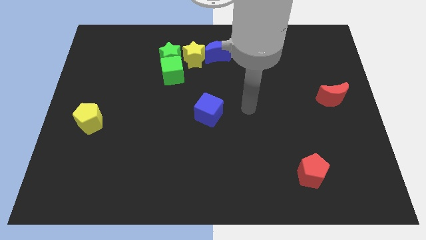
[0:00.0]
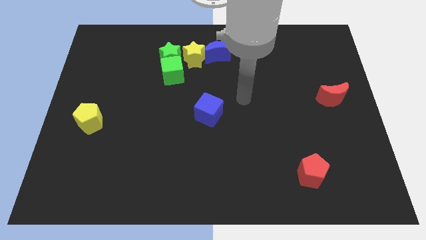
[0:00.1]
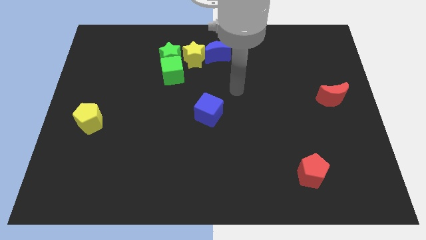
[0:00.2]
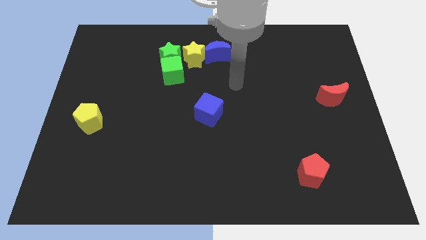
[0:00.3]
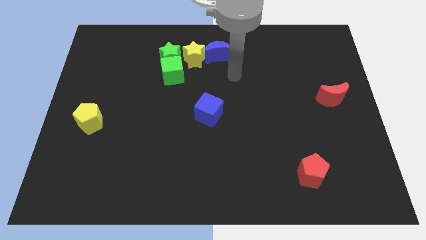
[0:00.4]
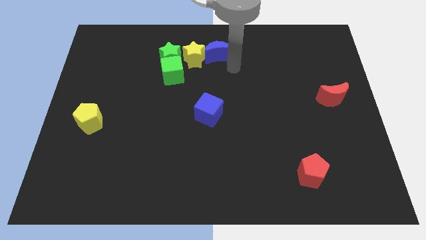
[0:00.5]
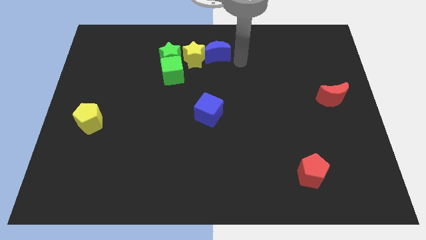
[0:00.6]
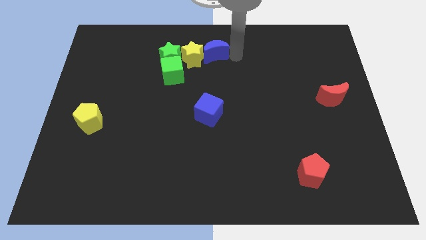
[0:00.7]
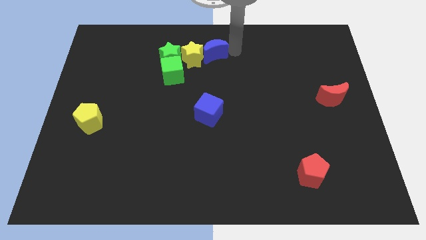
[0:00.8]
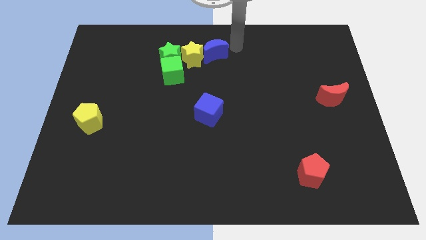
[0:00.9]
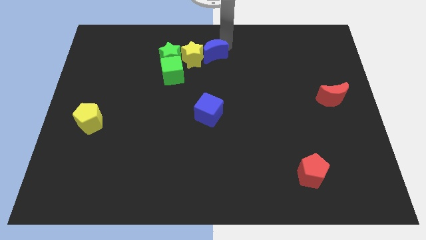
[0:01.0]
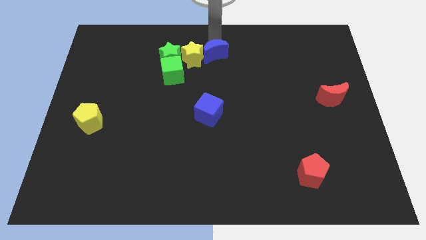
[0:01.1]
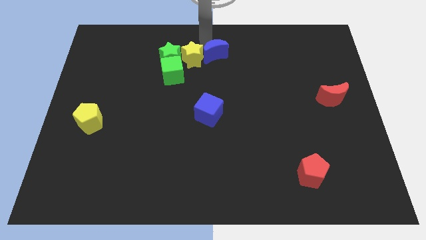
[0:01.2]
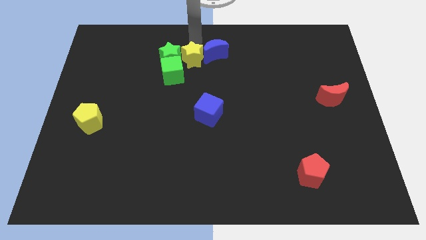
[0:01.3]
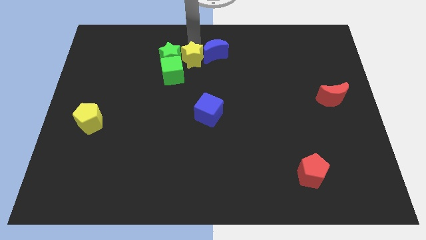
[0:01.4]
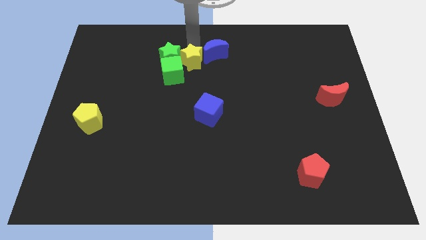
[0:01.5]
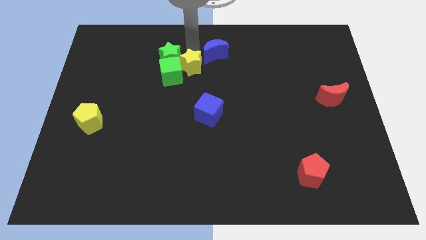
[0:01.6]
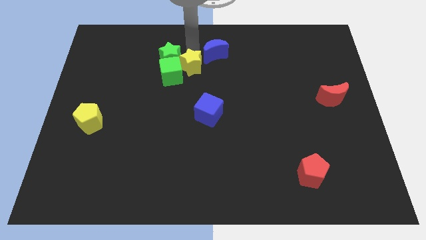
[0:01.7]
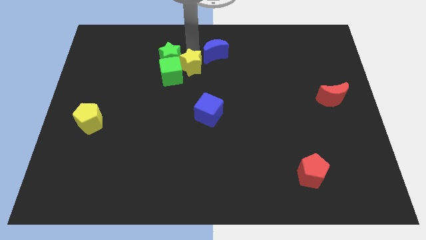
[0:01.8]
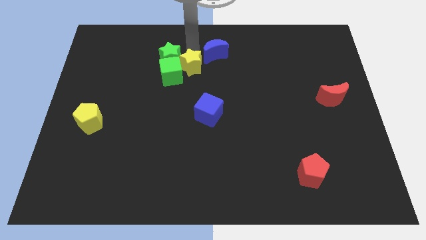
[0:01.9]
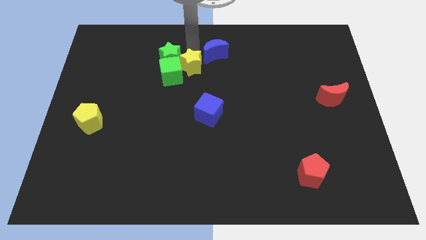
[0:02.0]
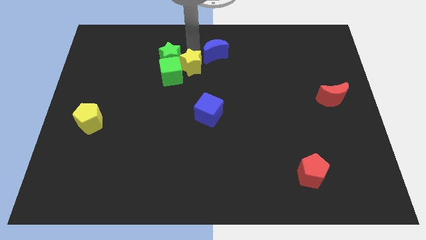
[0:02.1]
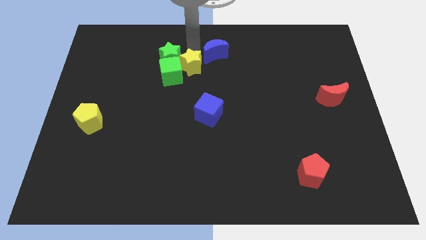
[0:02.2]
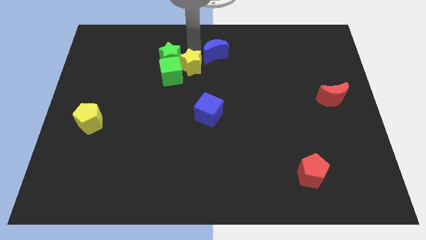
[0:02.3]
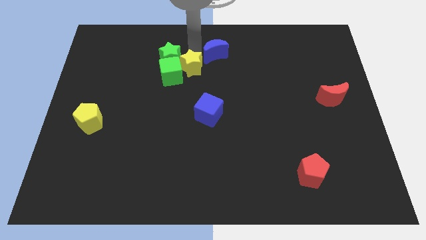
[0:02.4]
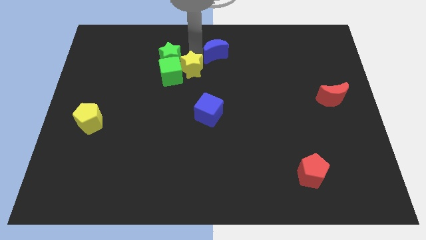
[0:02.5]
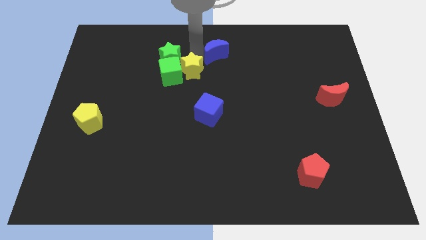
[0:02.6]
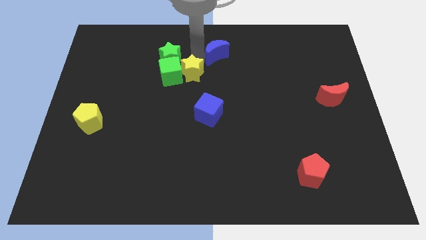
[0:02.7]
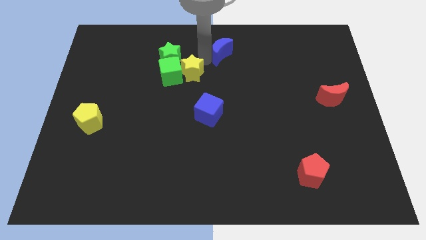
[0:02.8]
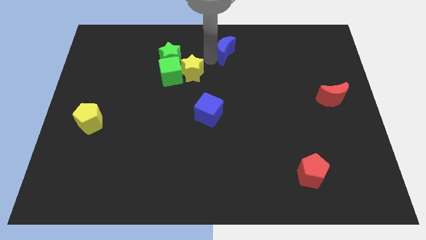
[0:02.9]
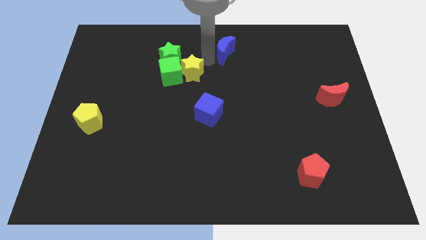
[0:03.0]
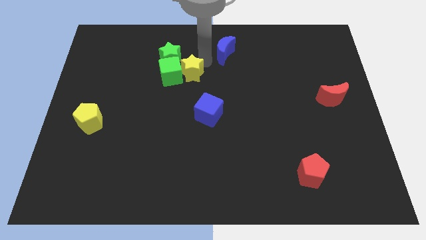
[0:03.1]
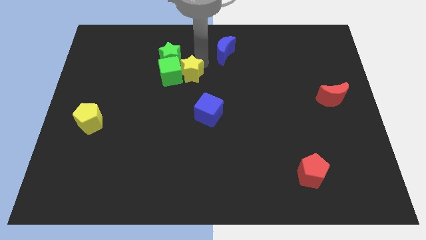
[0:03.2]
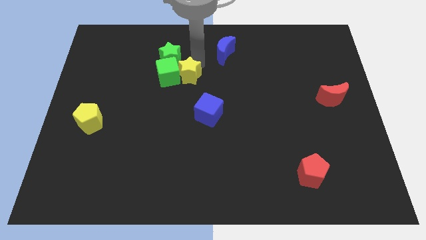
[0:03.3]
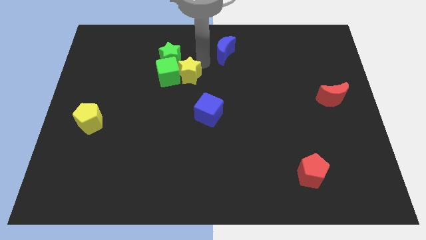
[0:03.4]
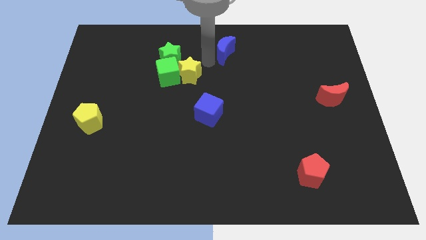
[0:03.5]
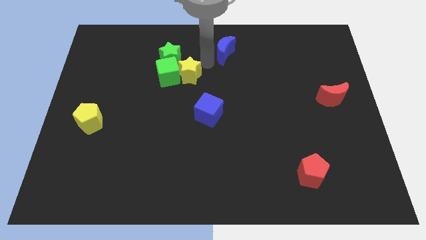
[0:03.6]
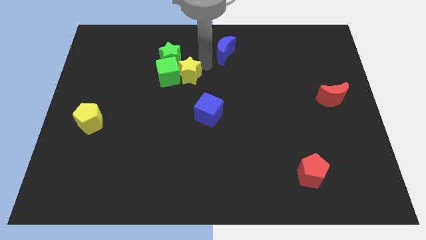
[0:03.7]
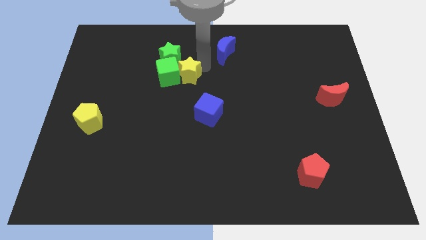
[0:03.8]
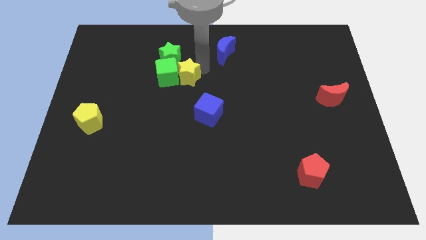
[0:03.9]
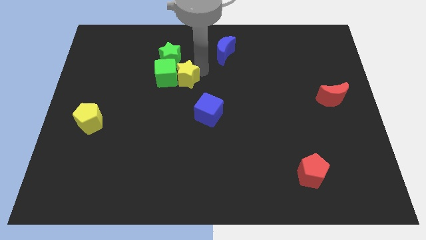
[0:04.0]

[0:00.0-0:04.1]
push the yellow star below the green star

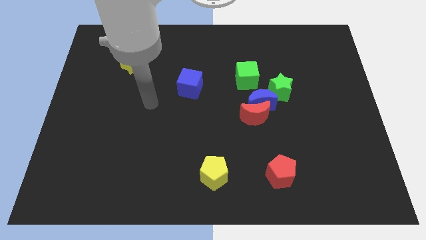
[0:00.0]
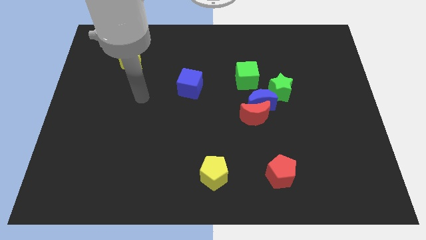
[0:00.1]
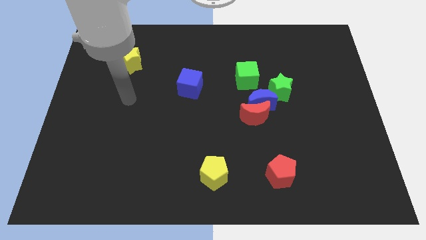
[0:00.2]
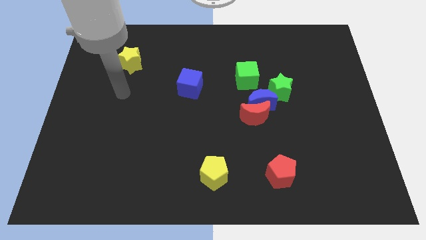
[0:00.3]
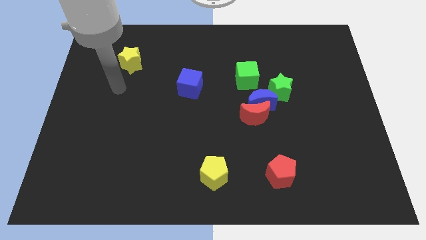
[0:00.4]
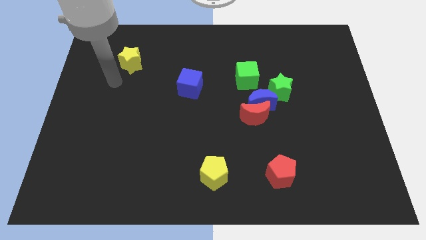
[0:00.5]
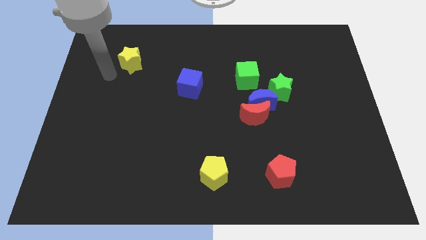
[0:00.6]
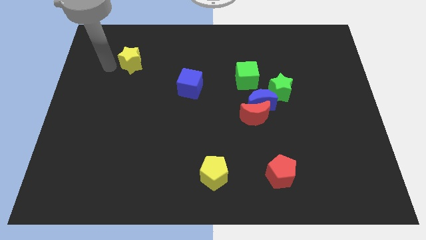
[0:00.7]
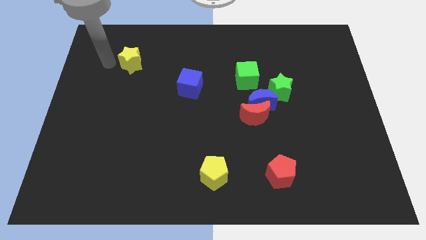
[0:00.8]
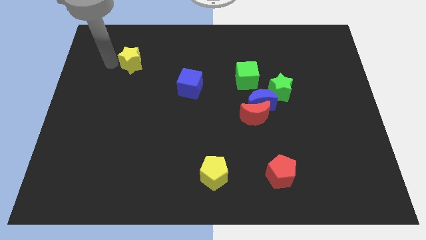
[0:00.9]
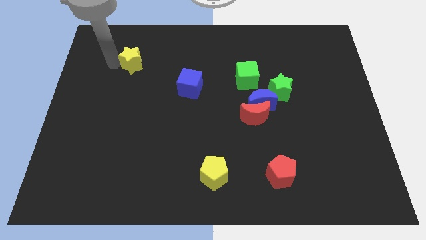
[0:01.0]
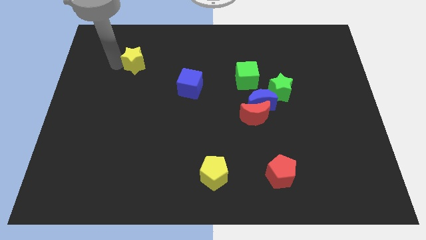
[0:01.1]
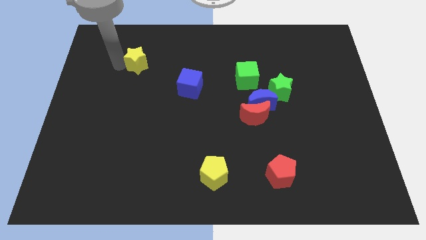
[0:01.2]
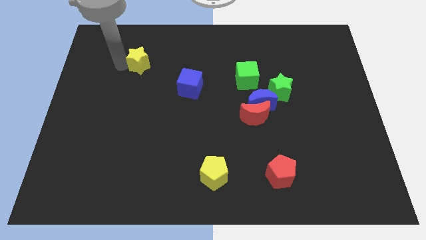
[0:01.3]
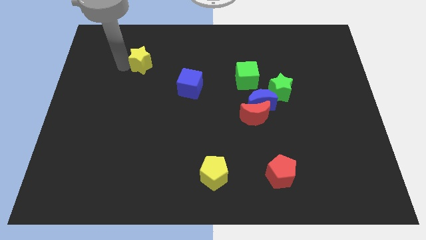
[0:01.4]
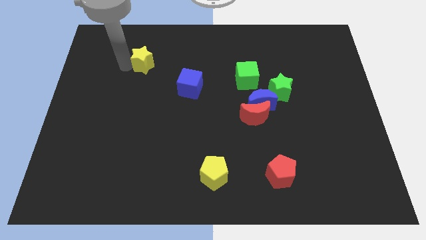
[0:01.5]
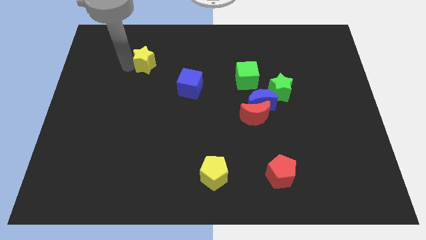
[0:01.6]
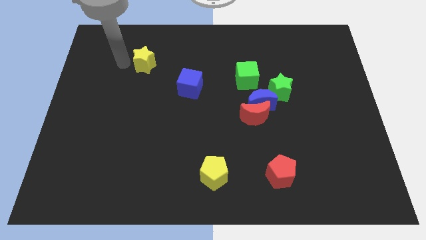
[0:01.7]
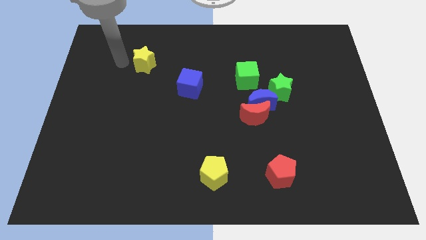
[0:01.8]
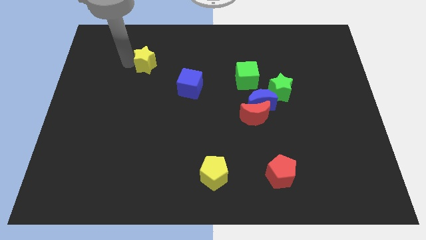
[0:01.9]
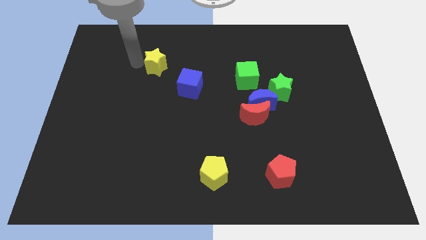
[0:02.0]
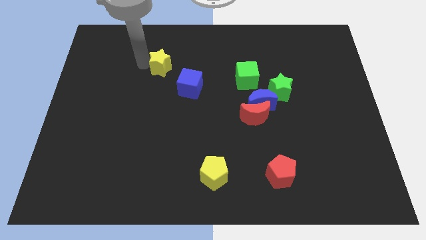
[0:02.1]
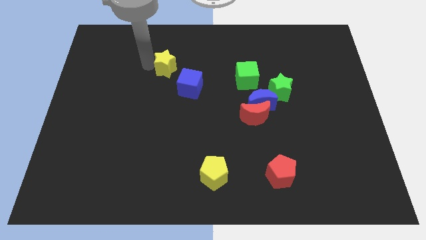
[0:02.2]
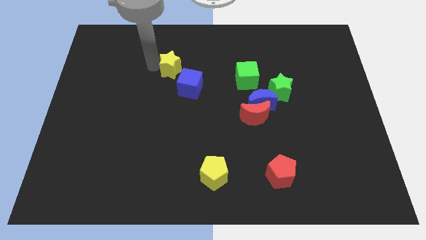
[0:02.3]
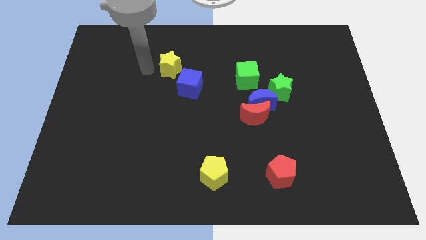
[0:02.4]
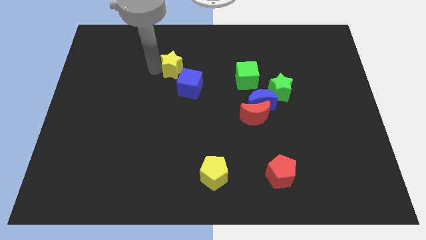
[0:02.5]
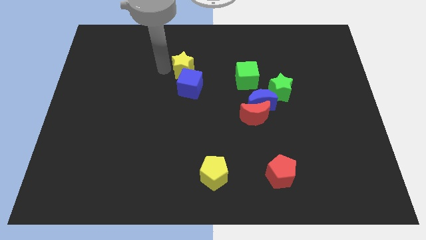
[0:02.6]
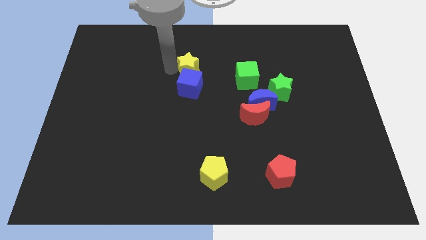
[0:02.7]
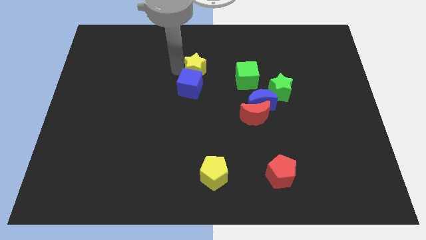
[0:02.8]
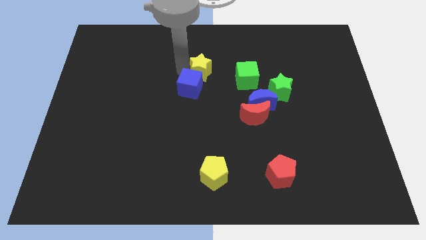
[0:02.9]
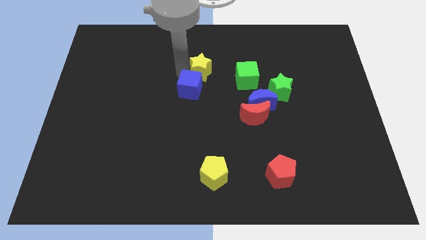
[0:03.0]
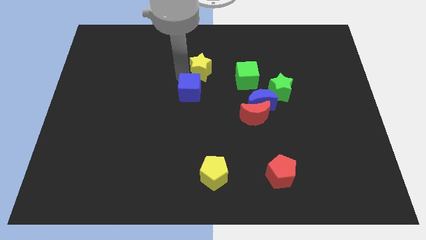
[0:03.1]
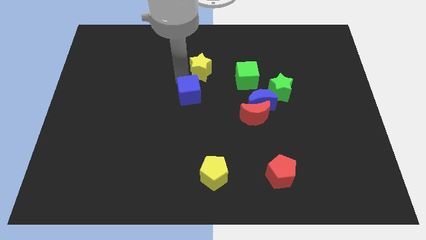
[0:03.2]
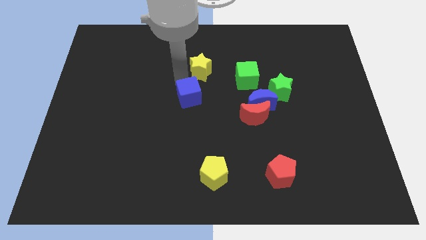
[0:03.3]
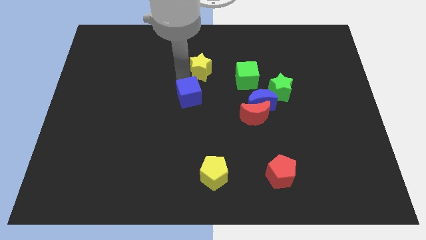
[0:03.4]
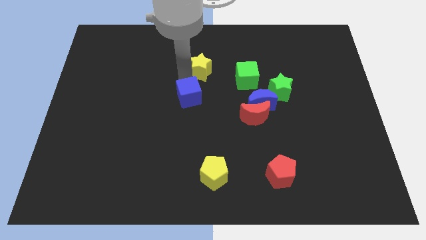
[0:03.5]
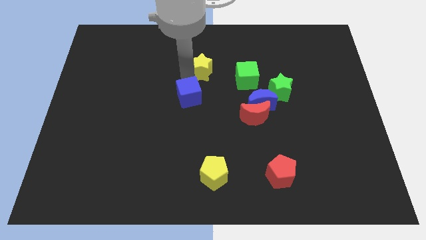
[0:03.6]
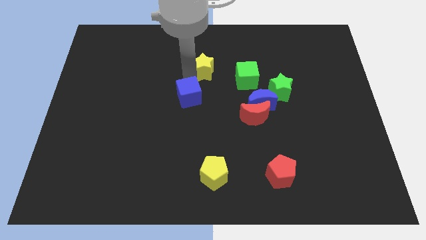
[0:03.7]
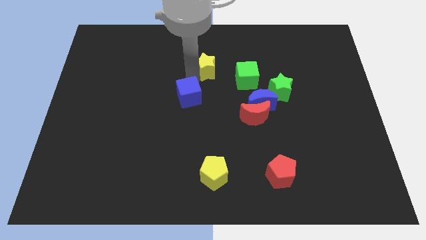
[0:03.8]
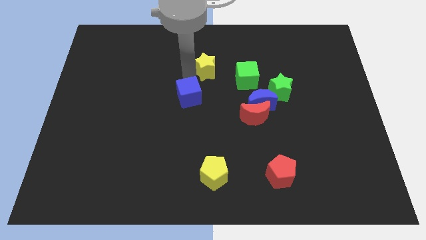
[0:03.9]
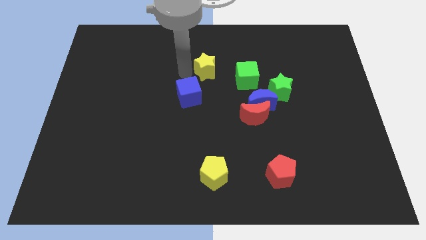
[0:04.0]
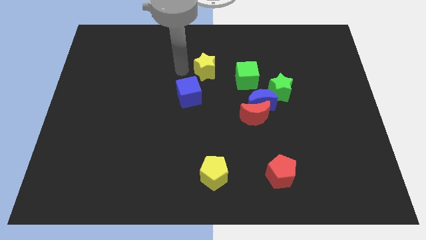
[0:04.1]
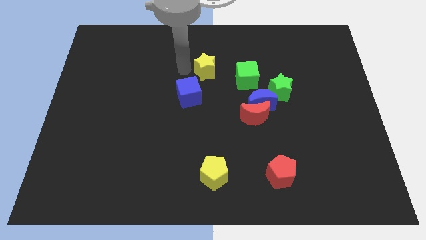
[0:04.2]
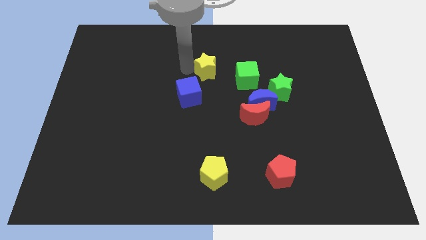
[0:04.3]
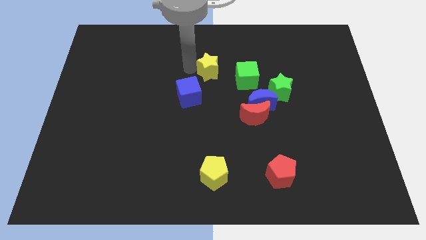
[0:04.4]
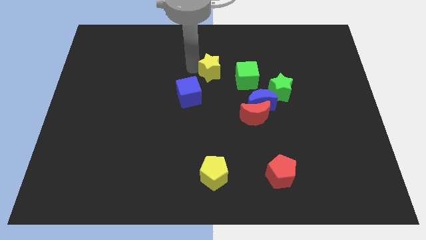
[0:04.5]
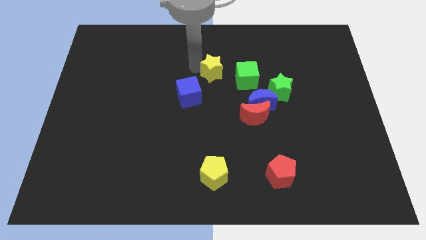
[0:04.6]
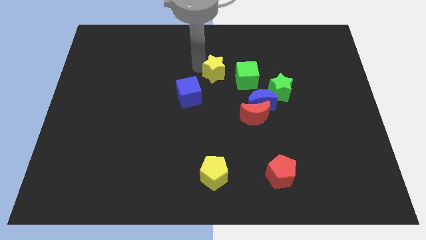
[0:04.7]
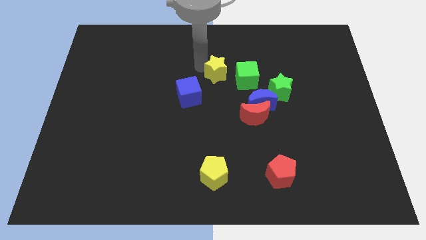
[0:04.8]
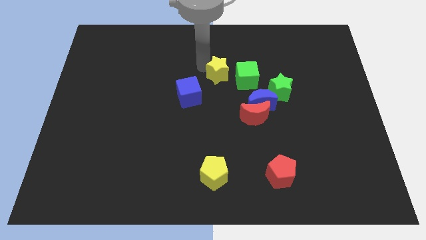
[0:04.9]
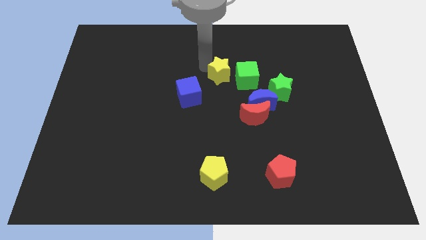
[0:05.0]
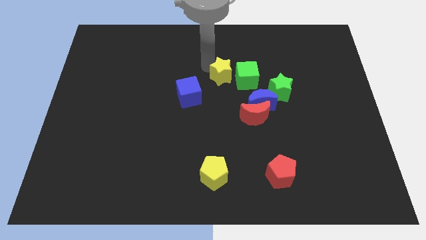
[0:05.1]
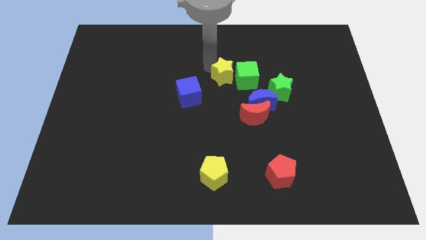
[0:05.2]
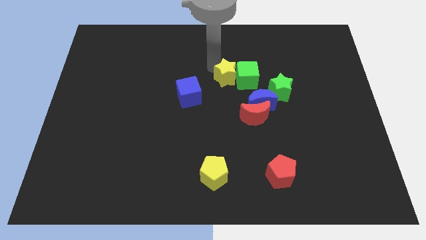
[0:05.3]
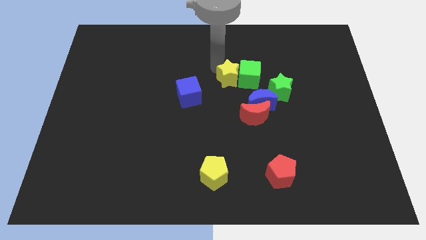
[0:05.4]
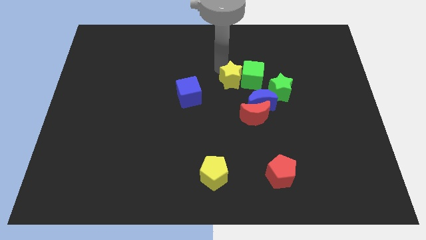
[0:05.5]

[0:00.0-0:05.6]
push the yellow star to the top side of the red moon
